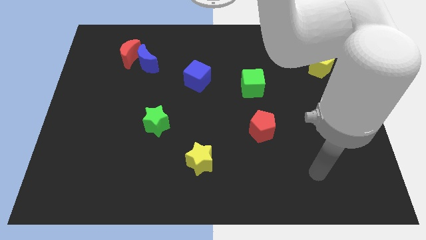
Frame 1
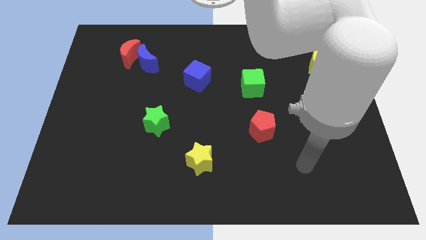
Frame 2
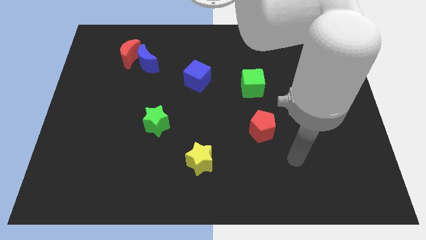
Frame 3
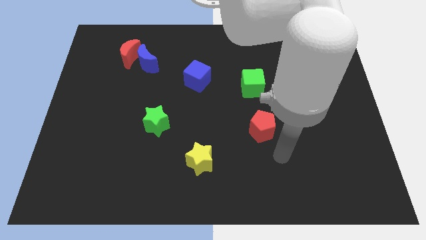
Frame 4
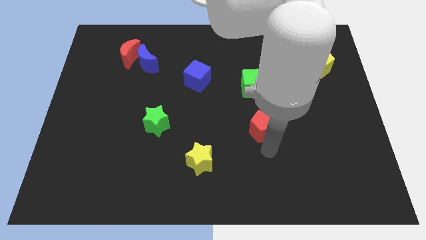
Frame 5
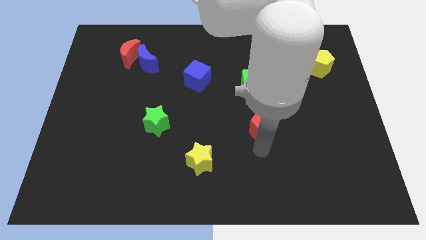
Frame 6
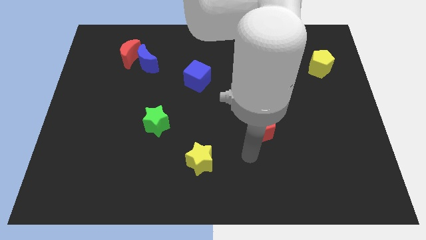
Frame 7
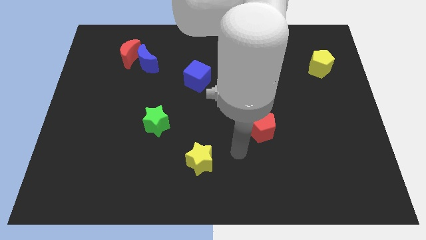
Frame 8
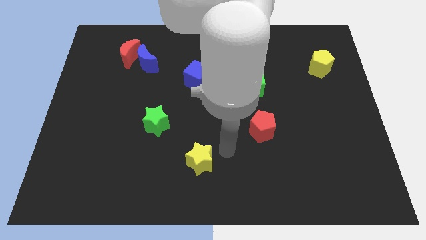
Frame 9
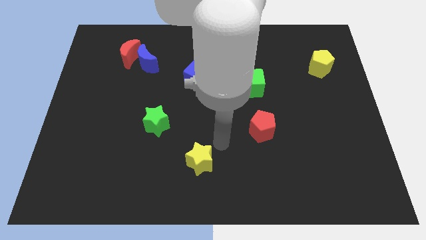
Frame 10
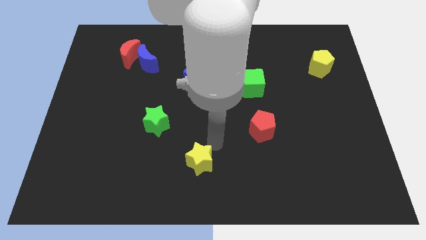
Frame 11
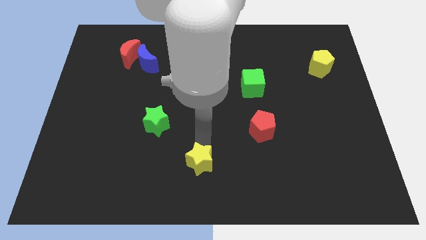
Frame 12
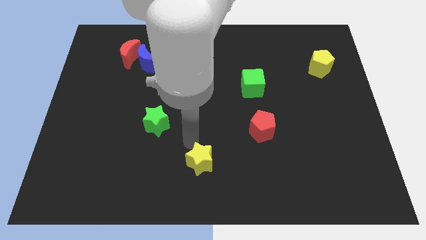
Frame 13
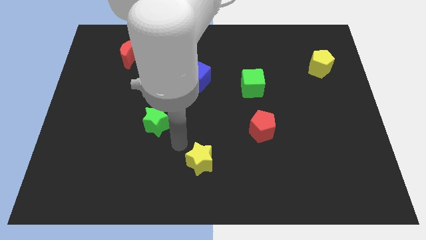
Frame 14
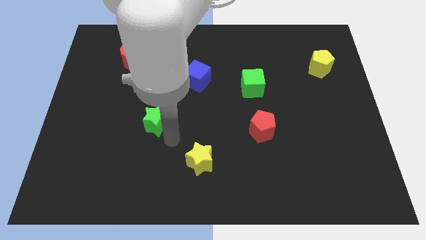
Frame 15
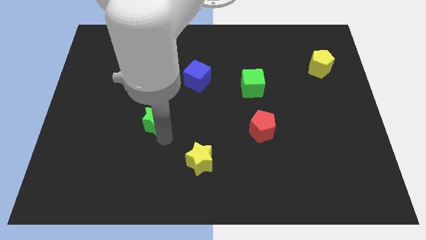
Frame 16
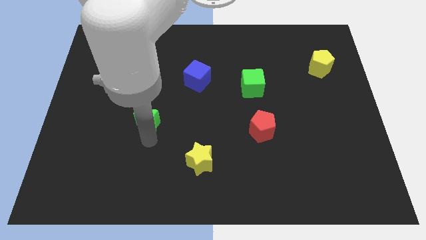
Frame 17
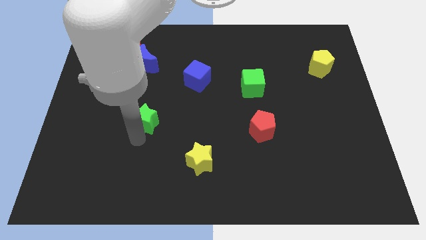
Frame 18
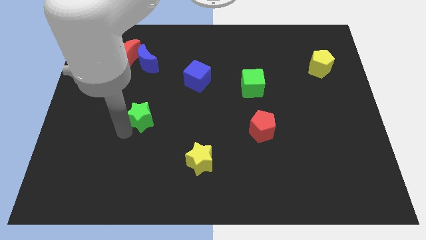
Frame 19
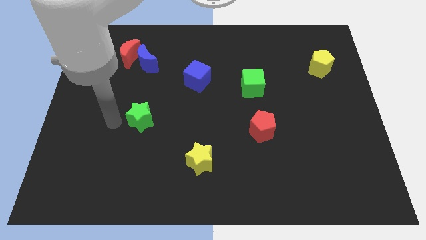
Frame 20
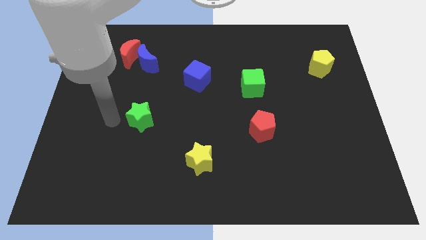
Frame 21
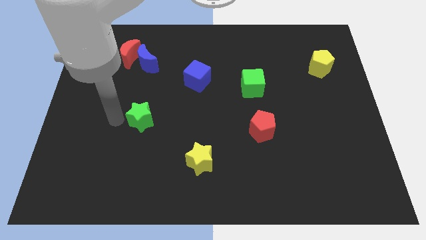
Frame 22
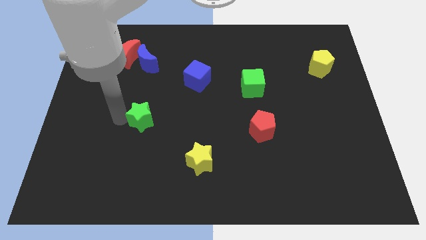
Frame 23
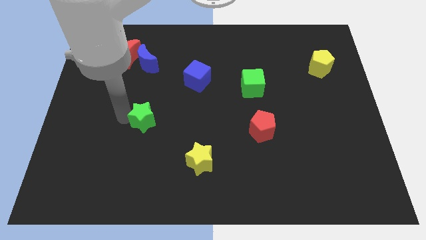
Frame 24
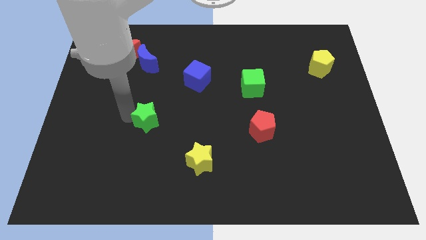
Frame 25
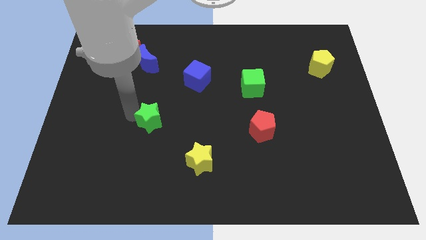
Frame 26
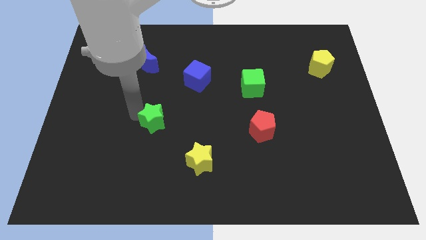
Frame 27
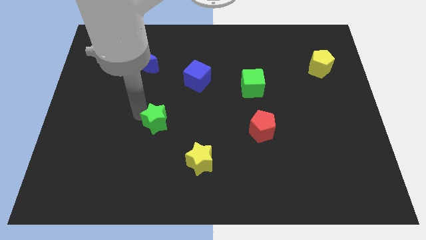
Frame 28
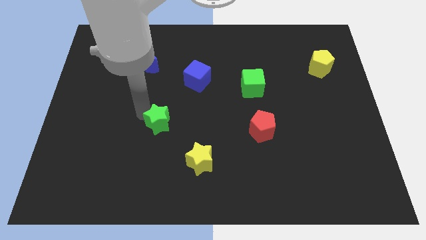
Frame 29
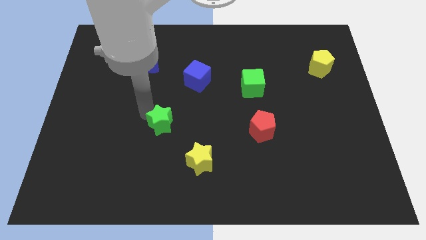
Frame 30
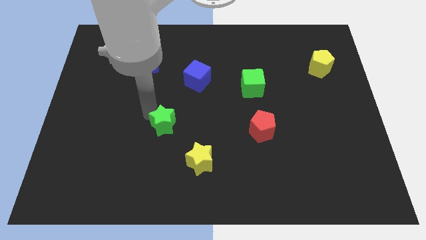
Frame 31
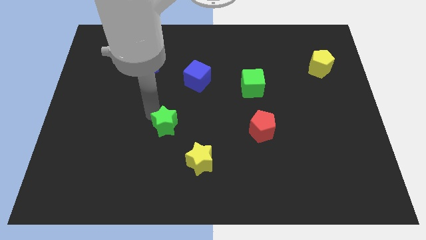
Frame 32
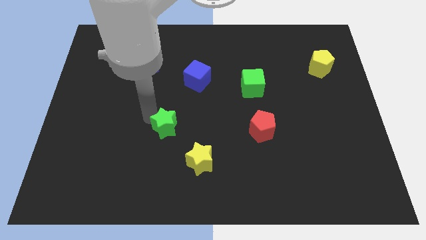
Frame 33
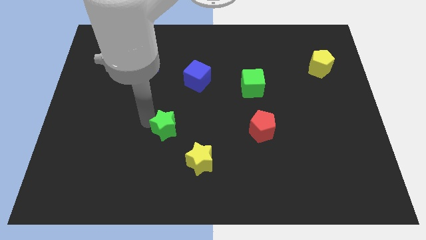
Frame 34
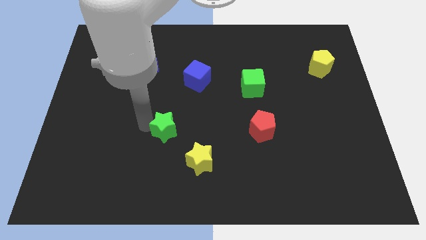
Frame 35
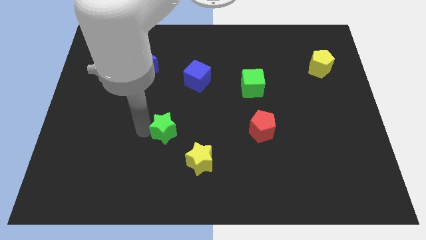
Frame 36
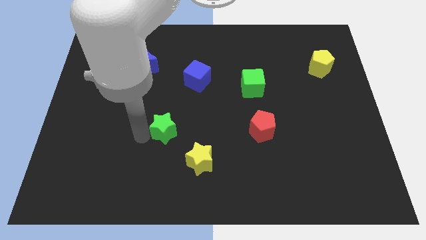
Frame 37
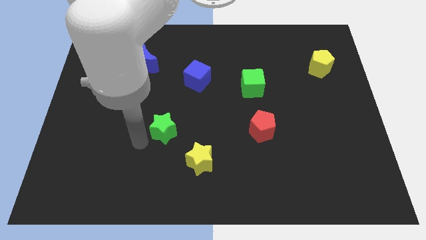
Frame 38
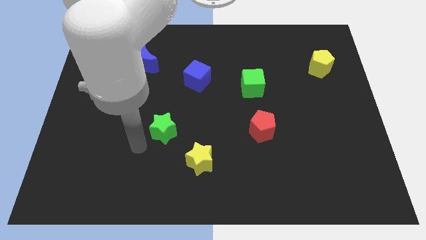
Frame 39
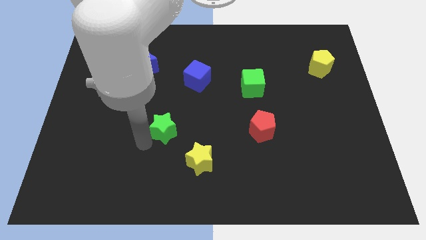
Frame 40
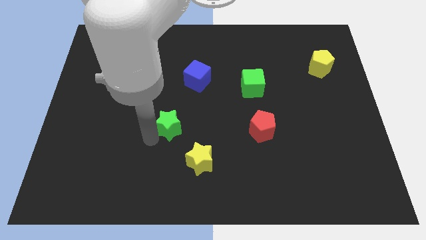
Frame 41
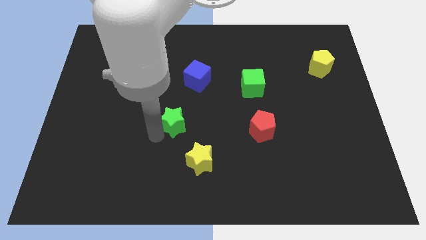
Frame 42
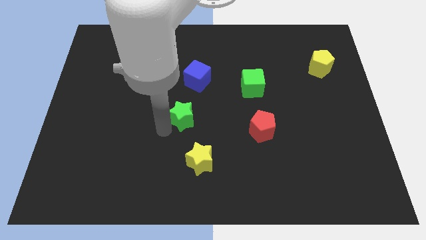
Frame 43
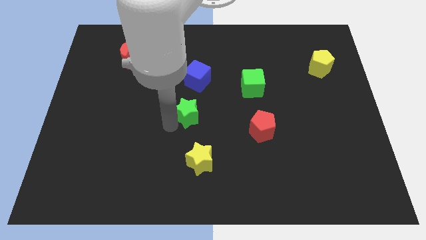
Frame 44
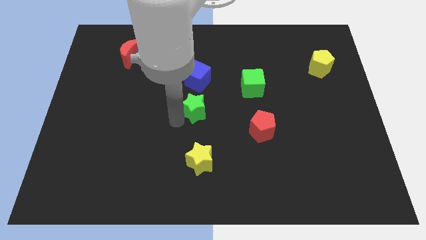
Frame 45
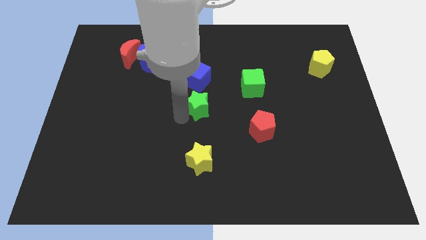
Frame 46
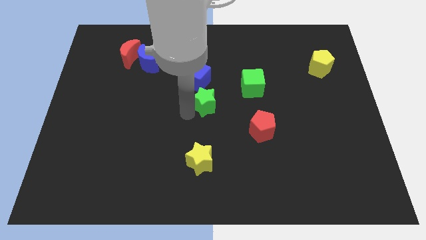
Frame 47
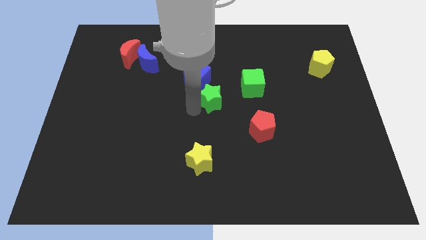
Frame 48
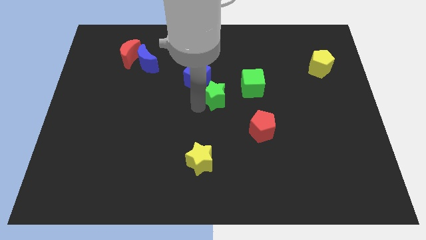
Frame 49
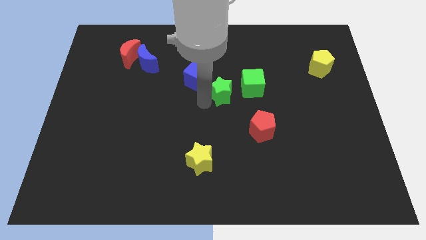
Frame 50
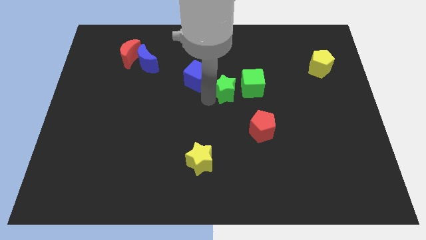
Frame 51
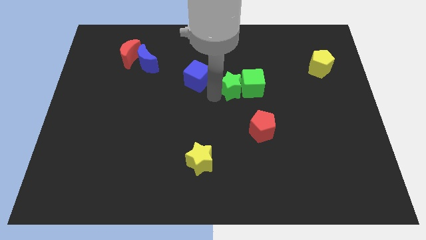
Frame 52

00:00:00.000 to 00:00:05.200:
move the green star towards the green cube

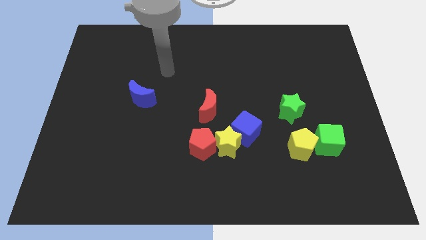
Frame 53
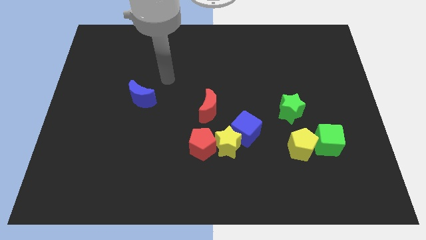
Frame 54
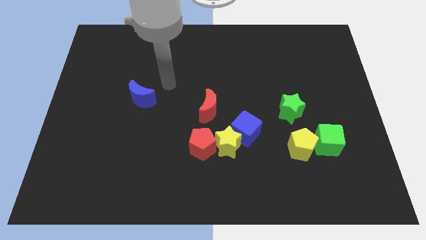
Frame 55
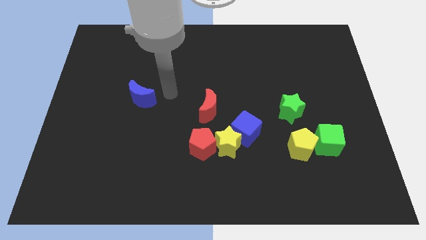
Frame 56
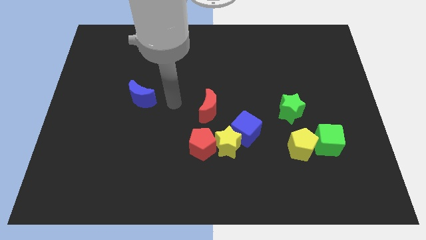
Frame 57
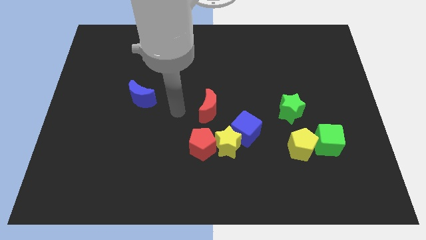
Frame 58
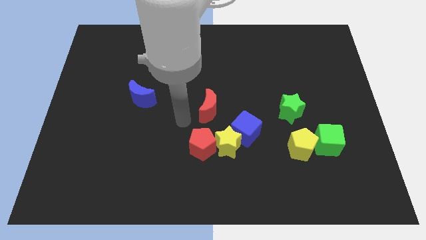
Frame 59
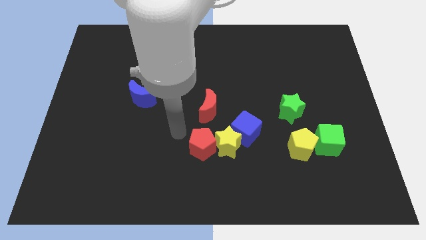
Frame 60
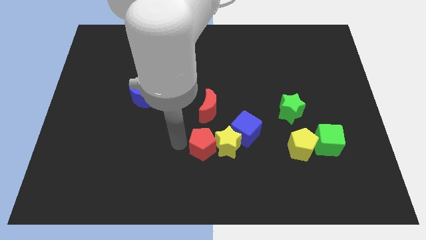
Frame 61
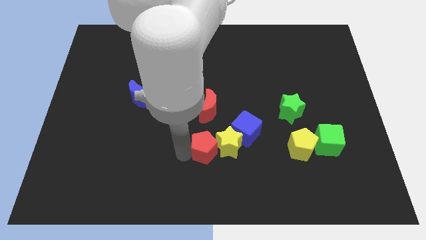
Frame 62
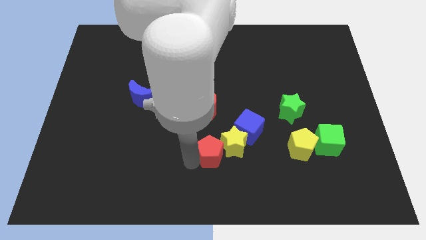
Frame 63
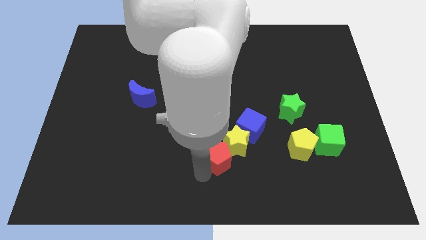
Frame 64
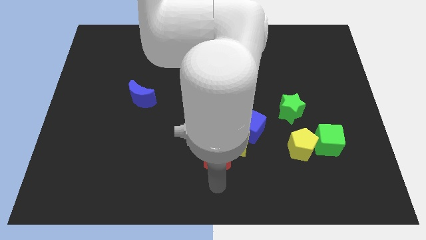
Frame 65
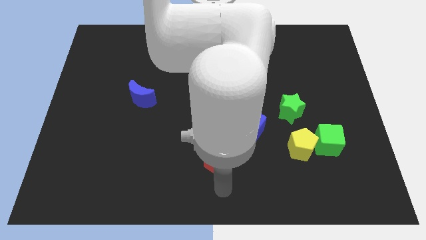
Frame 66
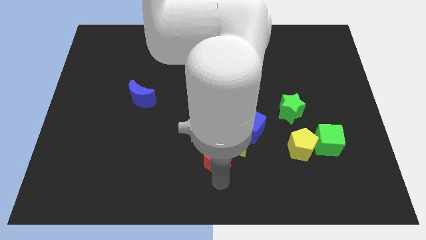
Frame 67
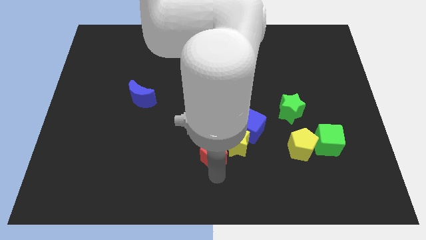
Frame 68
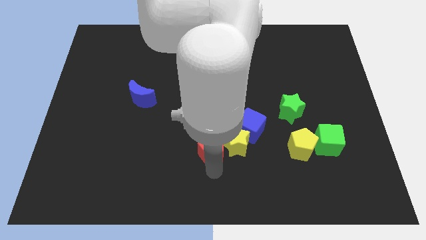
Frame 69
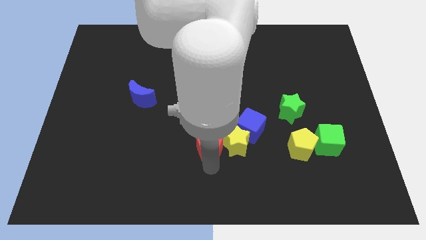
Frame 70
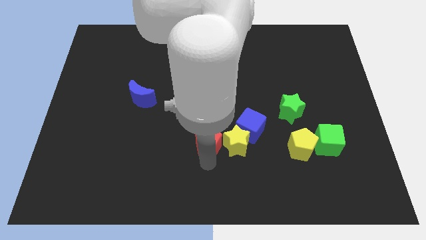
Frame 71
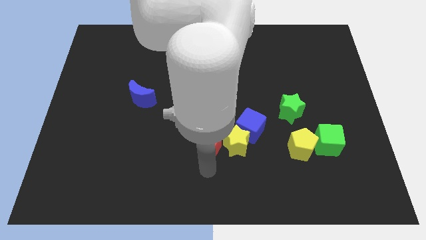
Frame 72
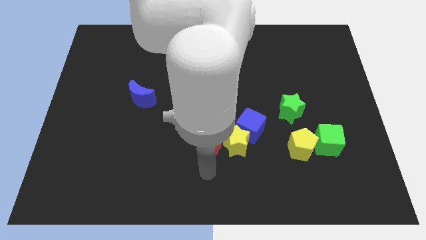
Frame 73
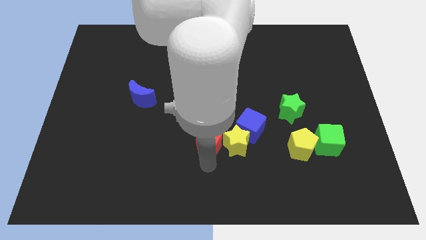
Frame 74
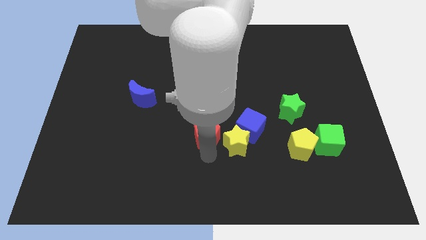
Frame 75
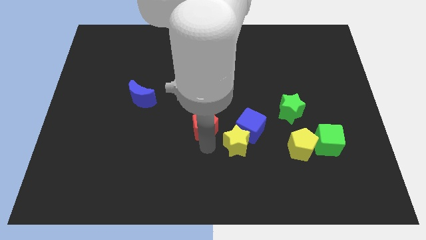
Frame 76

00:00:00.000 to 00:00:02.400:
put the red pentagon to the red moon
